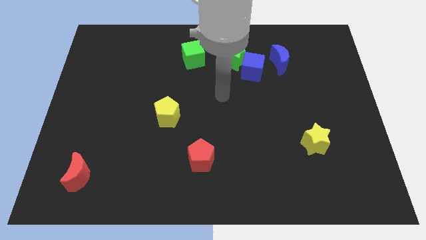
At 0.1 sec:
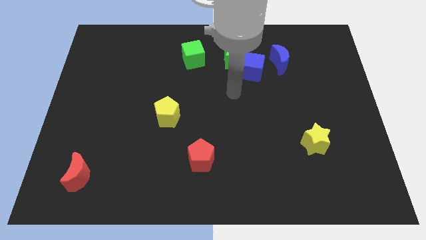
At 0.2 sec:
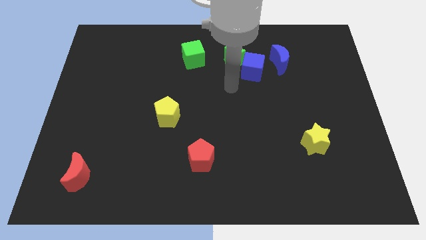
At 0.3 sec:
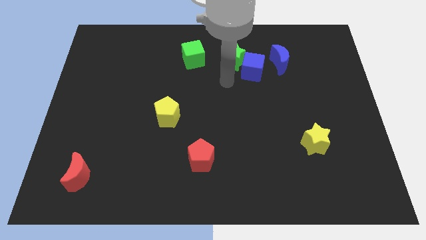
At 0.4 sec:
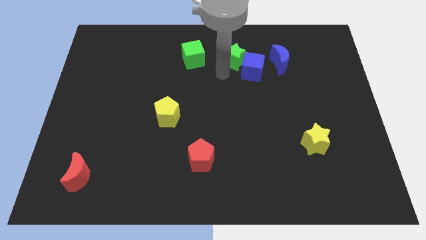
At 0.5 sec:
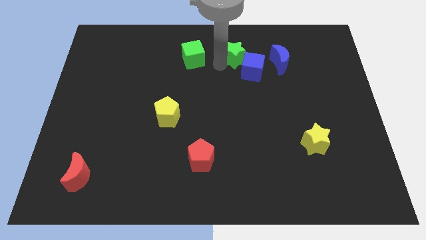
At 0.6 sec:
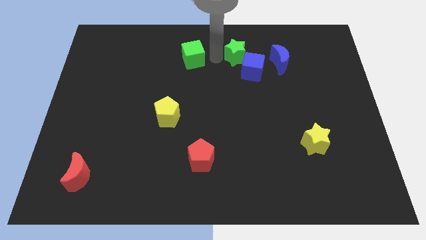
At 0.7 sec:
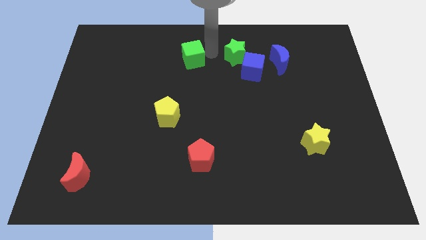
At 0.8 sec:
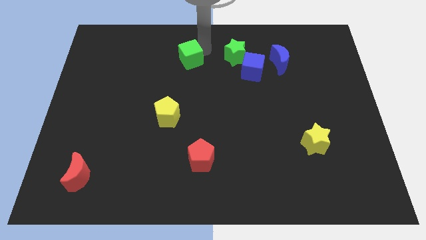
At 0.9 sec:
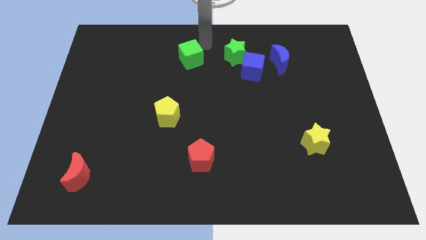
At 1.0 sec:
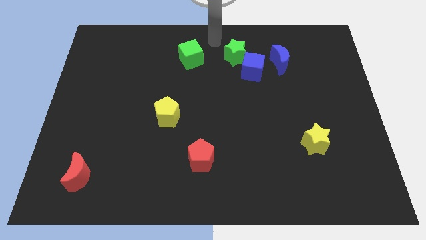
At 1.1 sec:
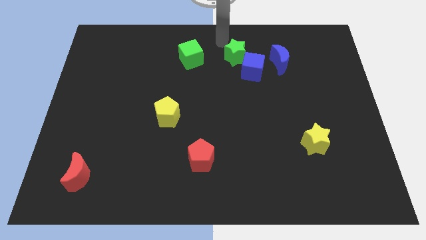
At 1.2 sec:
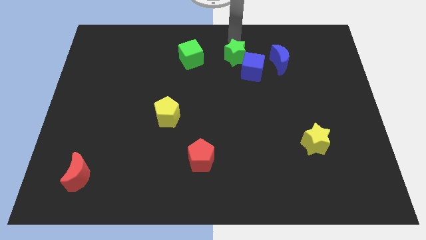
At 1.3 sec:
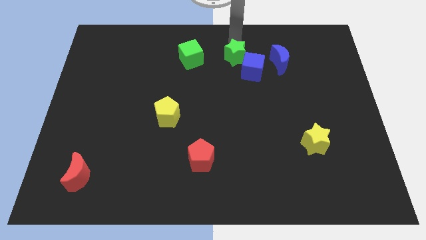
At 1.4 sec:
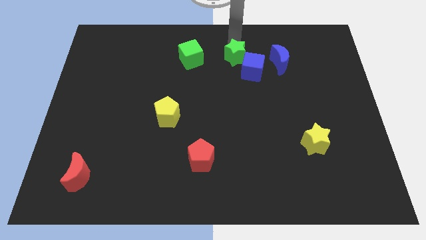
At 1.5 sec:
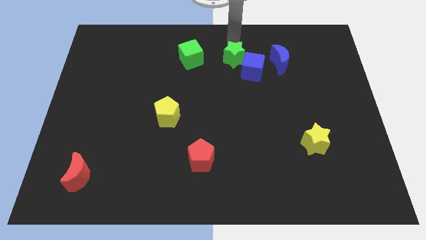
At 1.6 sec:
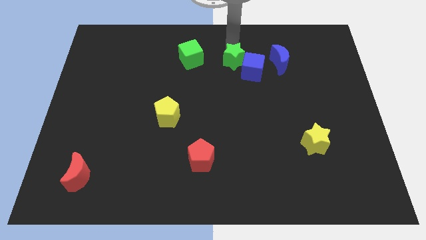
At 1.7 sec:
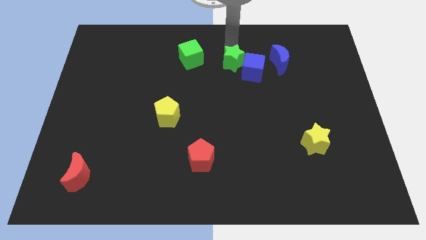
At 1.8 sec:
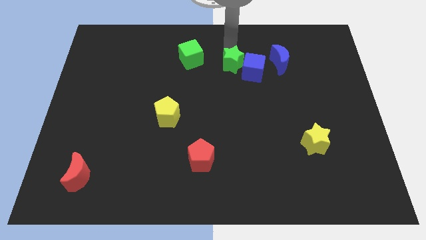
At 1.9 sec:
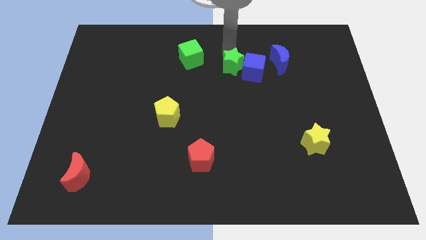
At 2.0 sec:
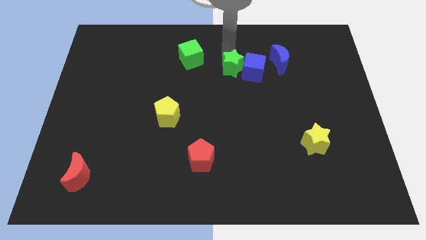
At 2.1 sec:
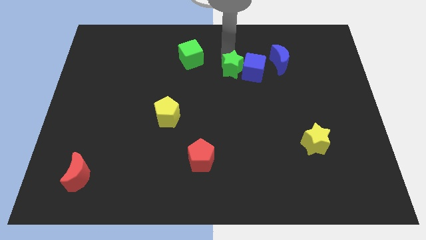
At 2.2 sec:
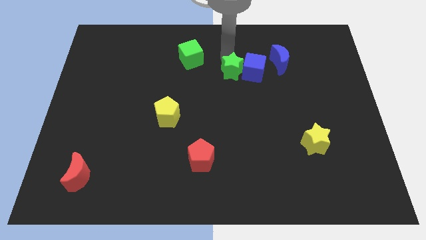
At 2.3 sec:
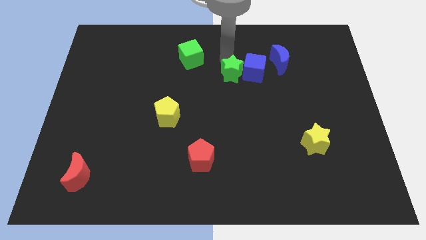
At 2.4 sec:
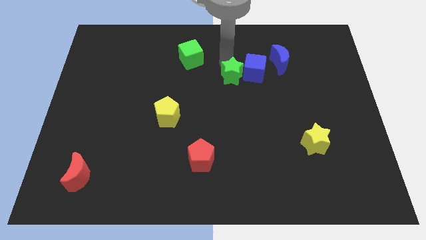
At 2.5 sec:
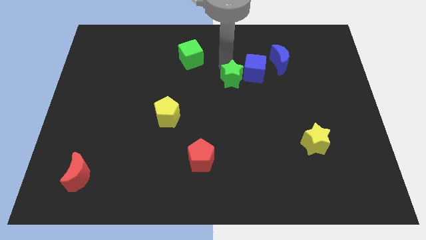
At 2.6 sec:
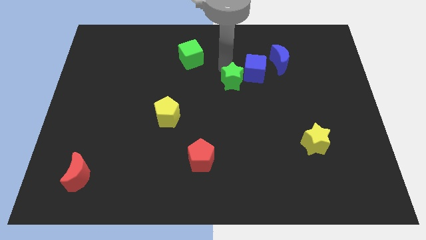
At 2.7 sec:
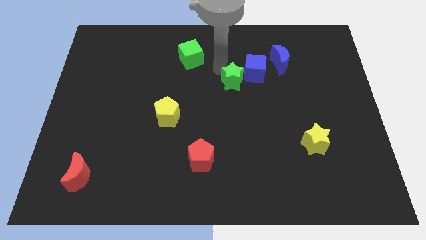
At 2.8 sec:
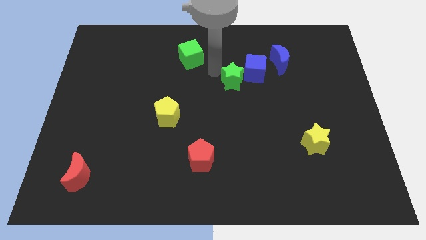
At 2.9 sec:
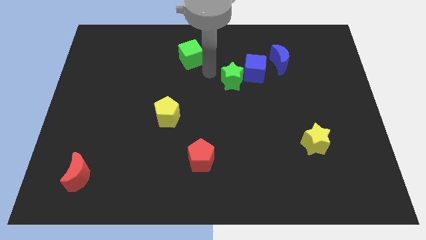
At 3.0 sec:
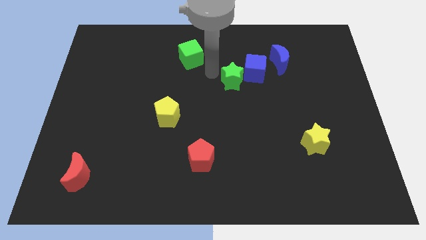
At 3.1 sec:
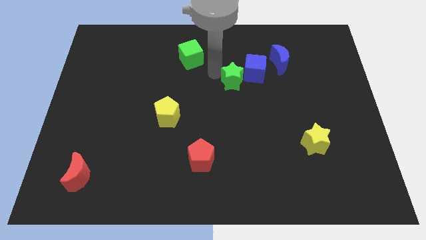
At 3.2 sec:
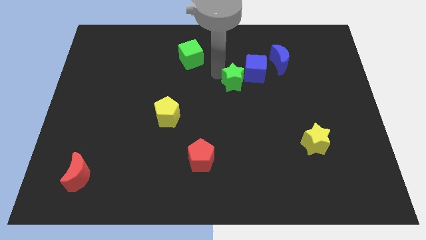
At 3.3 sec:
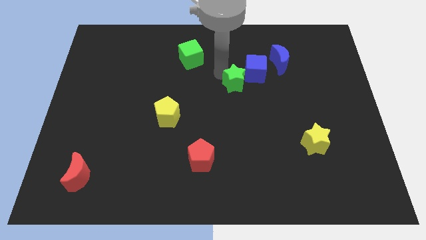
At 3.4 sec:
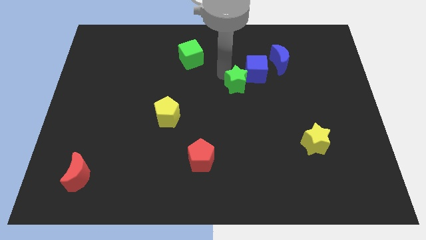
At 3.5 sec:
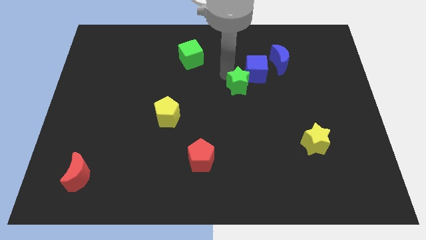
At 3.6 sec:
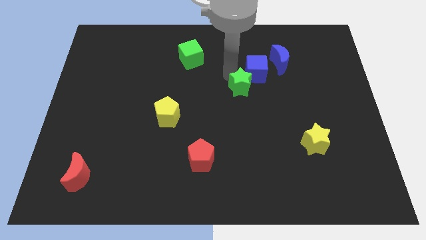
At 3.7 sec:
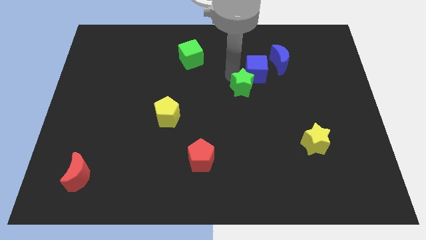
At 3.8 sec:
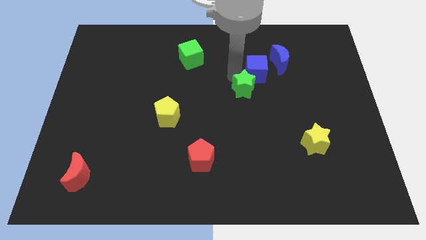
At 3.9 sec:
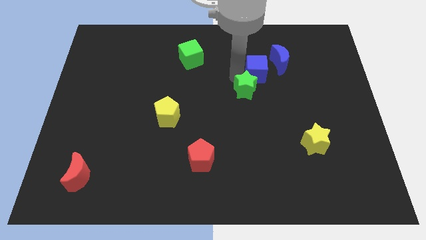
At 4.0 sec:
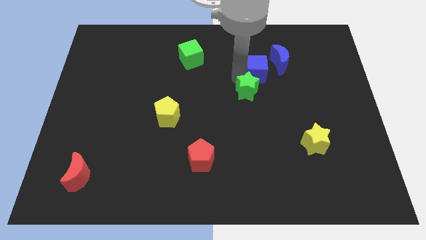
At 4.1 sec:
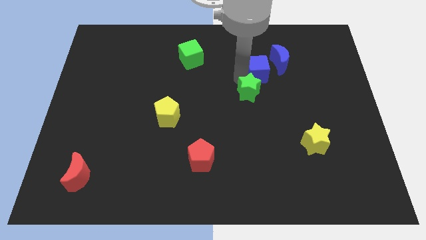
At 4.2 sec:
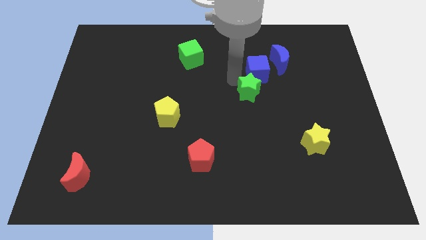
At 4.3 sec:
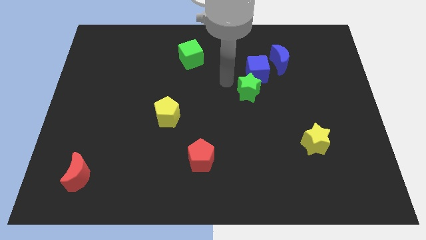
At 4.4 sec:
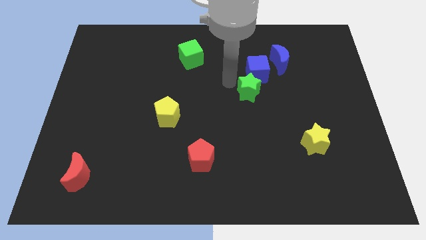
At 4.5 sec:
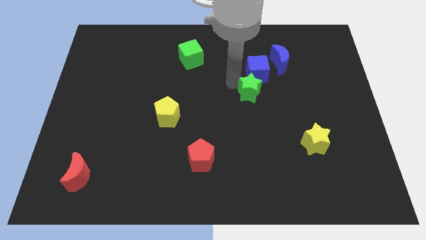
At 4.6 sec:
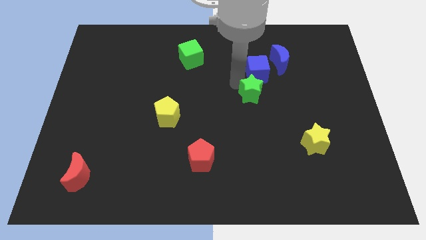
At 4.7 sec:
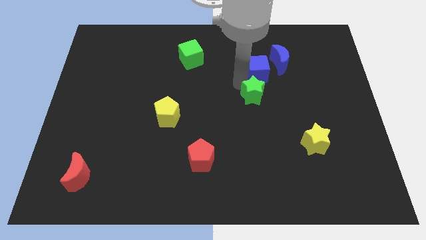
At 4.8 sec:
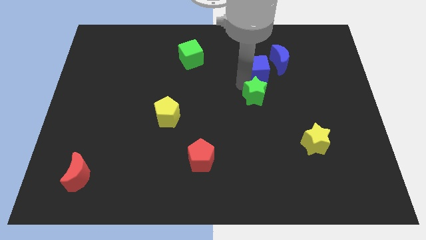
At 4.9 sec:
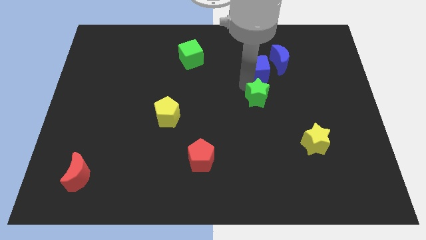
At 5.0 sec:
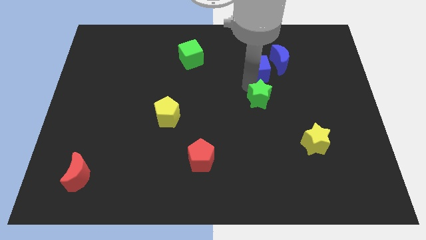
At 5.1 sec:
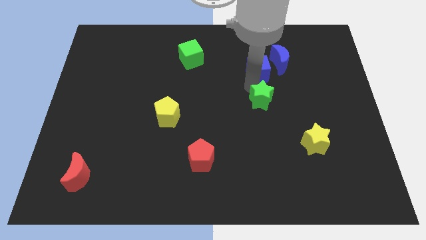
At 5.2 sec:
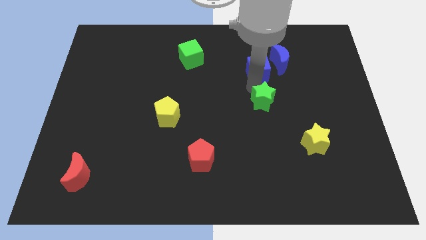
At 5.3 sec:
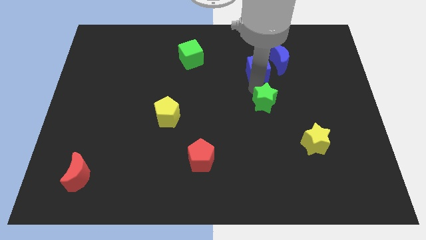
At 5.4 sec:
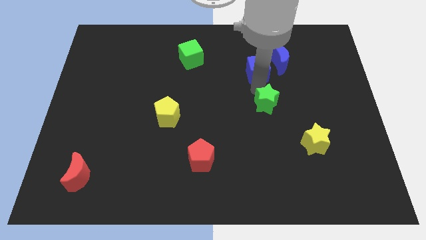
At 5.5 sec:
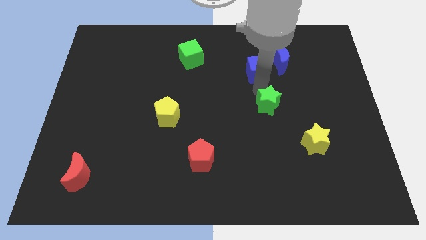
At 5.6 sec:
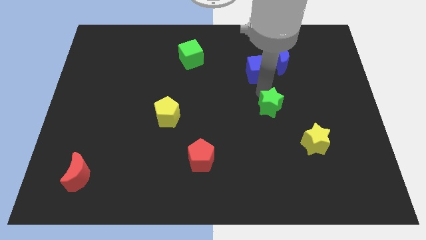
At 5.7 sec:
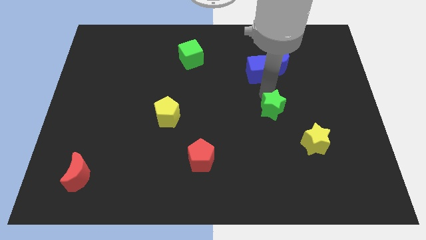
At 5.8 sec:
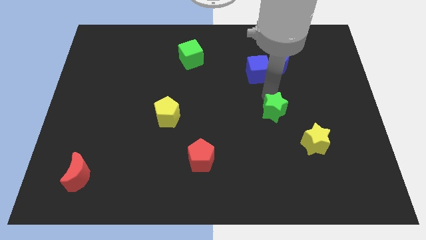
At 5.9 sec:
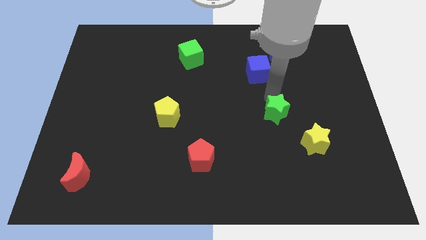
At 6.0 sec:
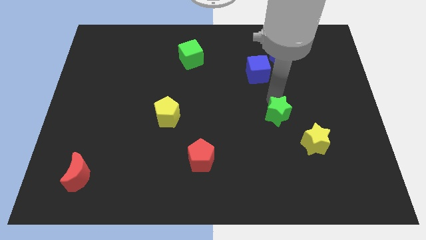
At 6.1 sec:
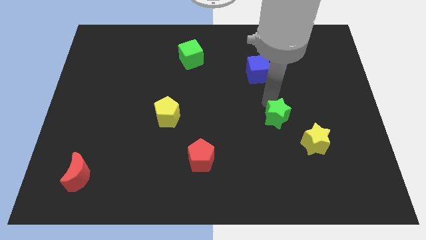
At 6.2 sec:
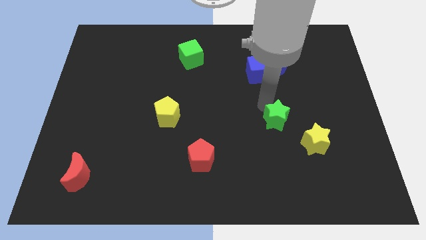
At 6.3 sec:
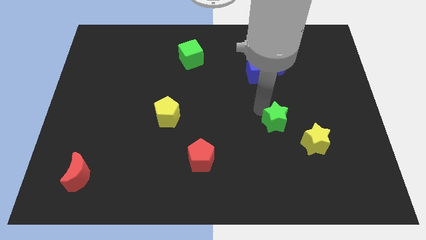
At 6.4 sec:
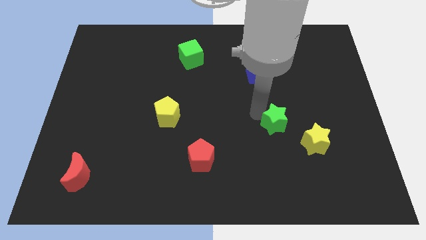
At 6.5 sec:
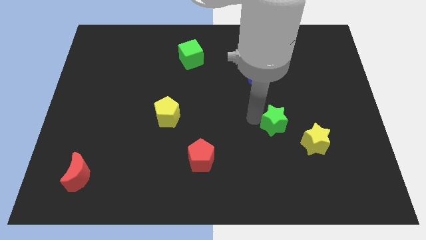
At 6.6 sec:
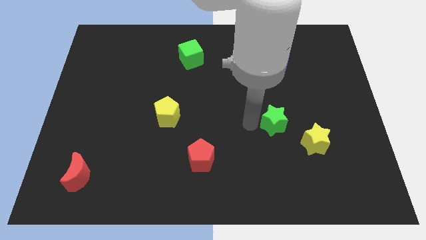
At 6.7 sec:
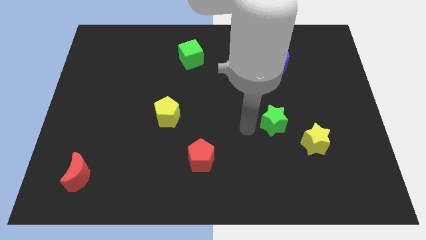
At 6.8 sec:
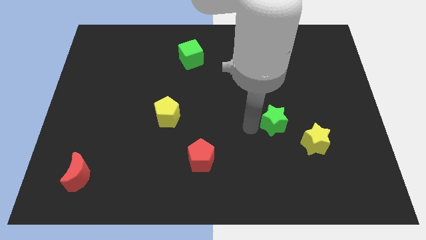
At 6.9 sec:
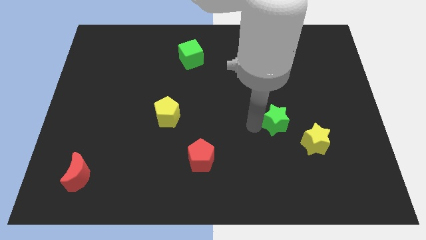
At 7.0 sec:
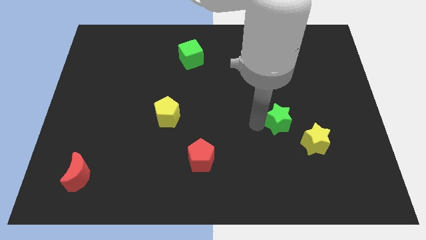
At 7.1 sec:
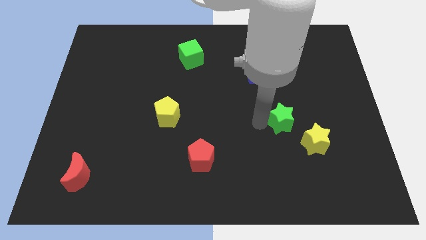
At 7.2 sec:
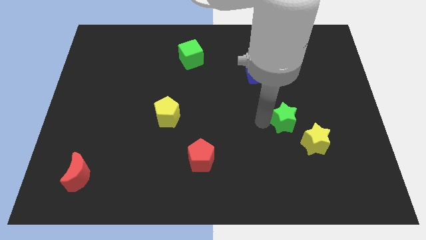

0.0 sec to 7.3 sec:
move the green star downwards and then right

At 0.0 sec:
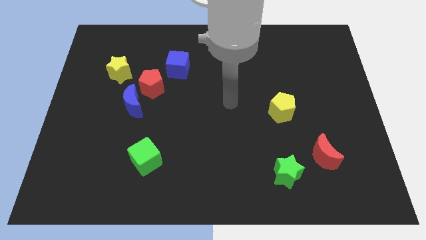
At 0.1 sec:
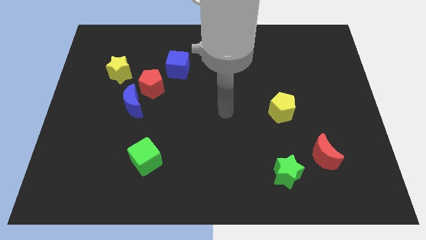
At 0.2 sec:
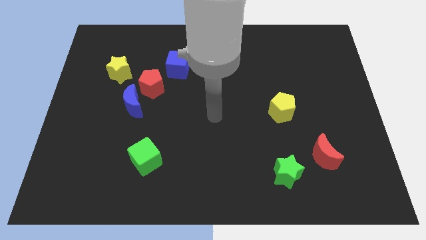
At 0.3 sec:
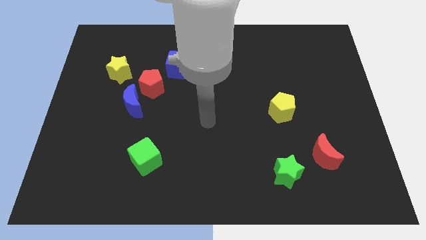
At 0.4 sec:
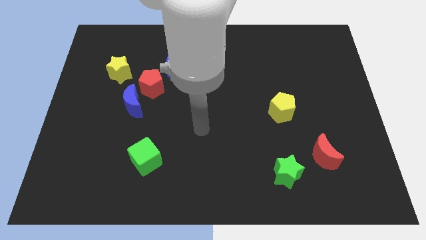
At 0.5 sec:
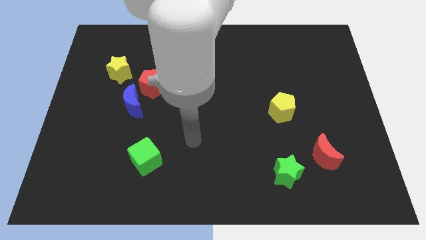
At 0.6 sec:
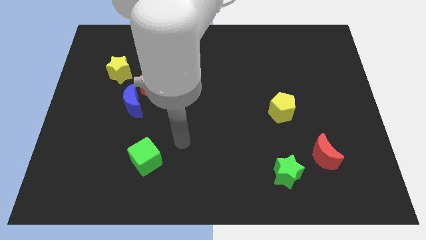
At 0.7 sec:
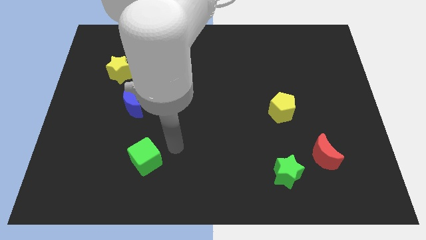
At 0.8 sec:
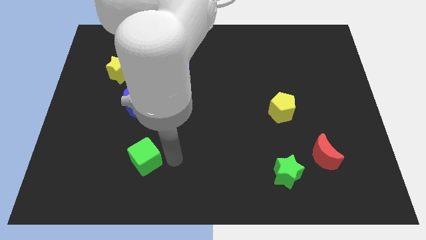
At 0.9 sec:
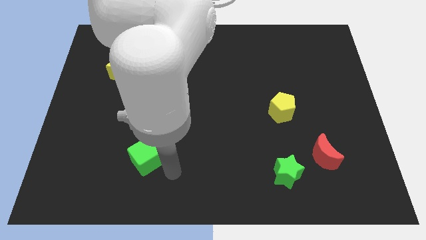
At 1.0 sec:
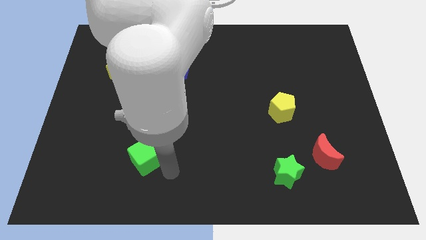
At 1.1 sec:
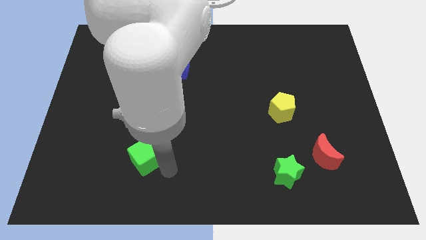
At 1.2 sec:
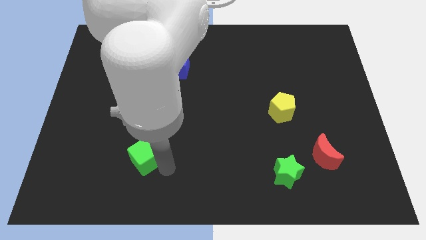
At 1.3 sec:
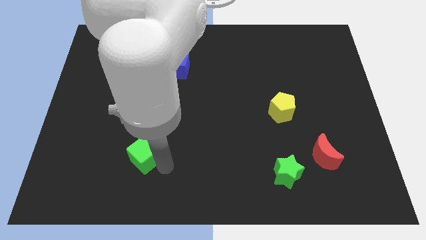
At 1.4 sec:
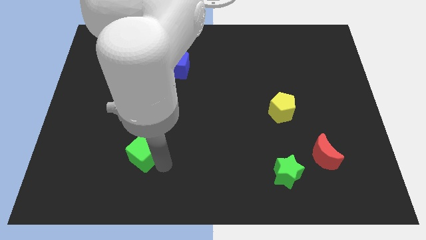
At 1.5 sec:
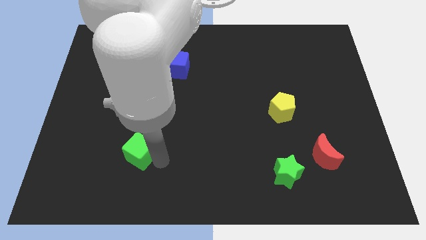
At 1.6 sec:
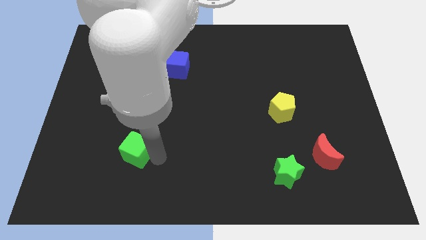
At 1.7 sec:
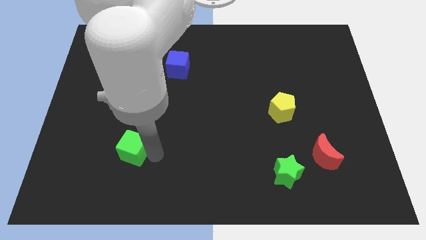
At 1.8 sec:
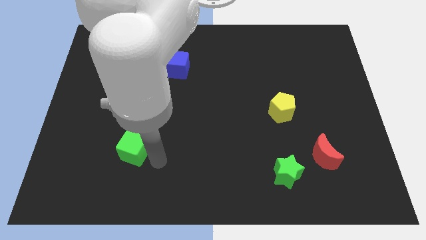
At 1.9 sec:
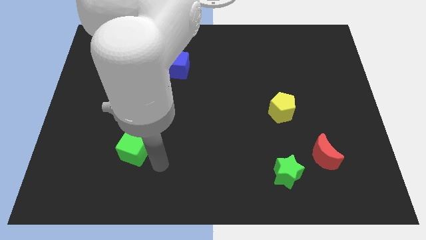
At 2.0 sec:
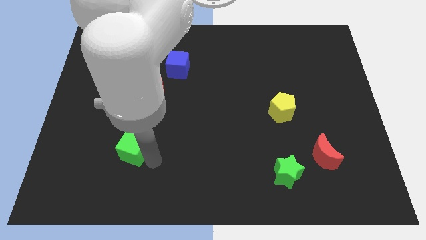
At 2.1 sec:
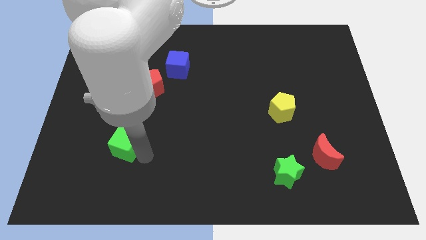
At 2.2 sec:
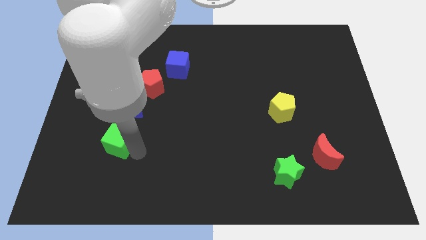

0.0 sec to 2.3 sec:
push the green cube somewhat upwards and then left
